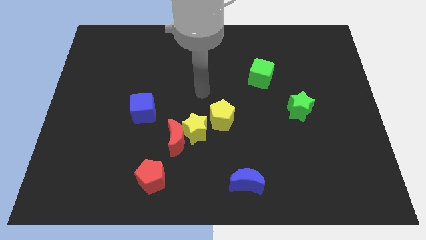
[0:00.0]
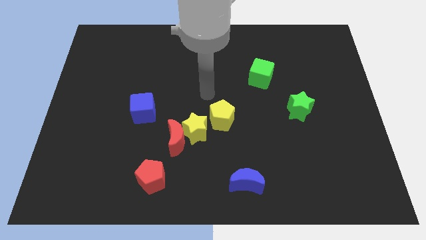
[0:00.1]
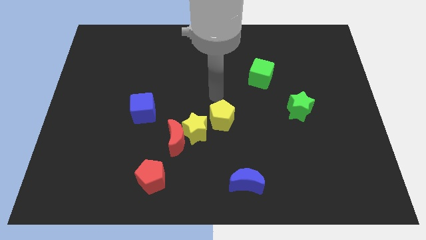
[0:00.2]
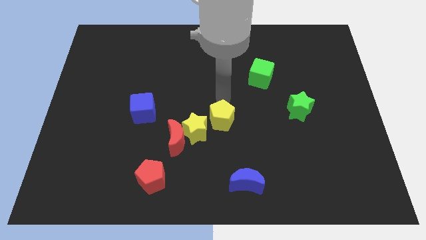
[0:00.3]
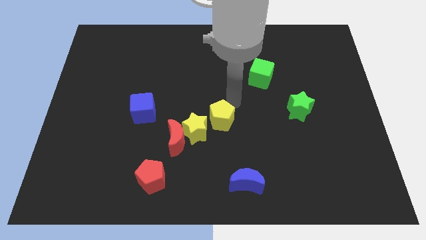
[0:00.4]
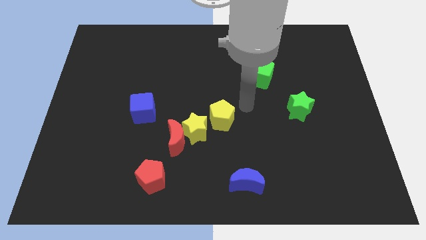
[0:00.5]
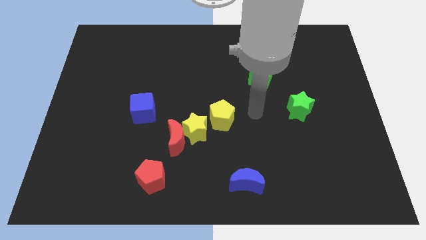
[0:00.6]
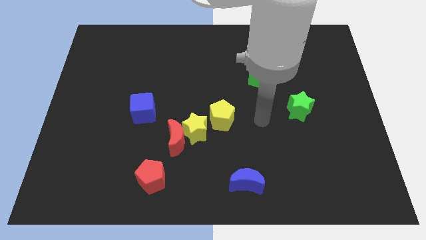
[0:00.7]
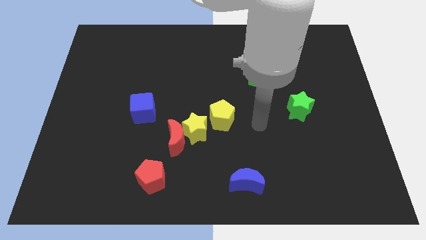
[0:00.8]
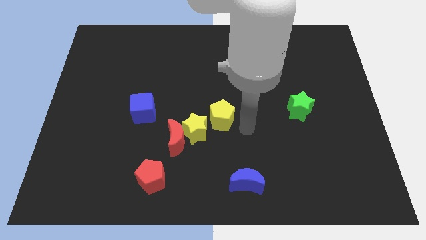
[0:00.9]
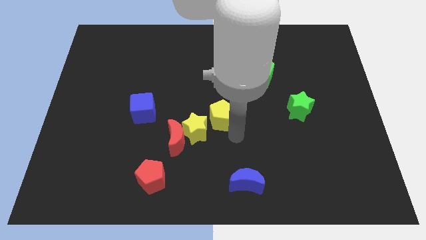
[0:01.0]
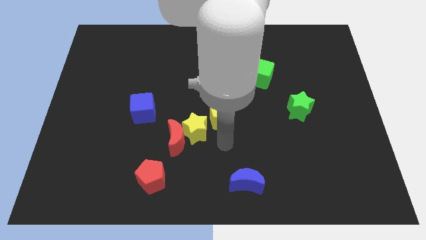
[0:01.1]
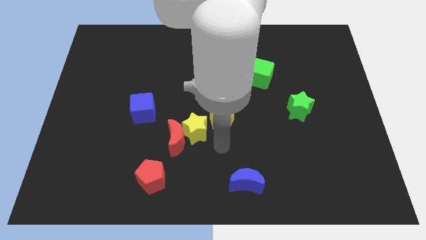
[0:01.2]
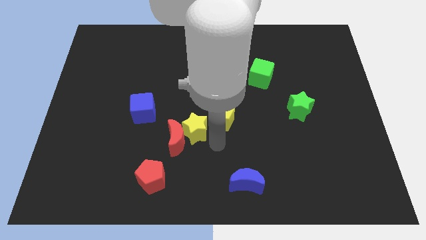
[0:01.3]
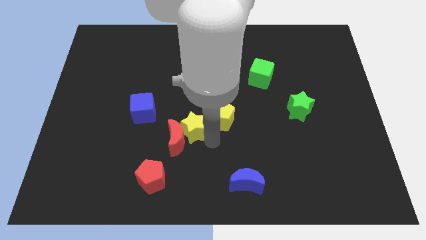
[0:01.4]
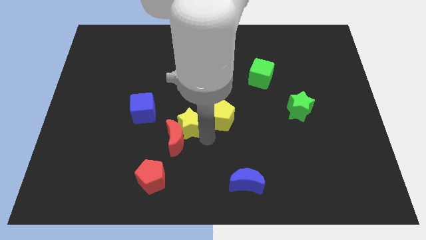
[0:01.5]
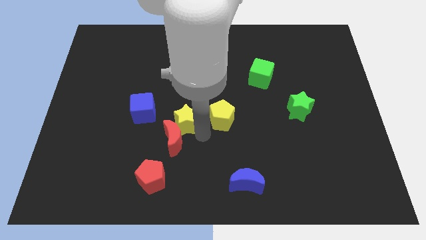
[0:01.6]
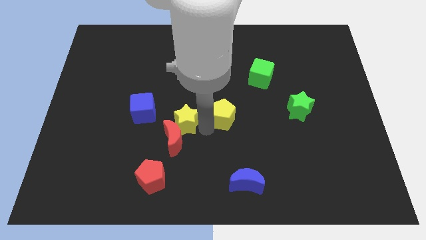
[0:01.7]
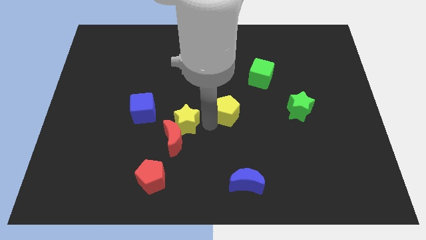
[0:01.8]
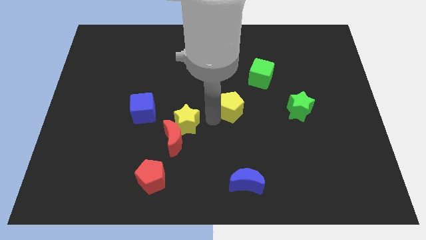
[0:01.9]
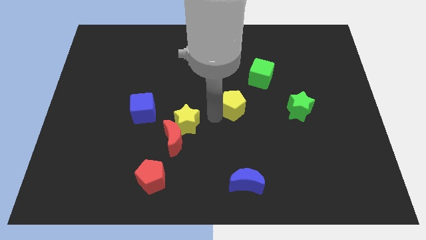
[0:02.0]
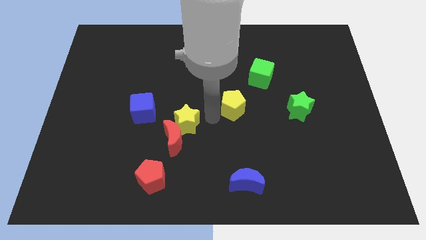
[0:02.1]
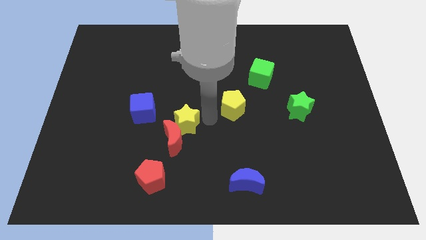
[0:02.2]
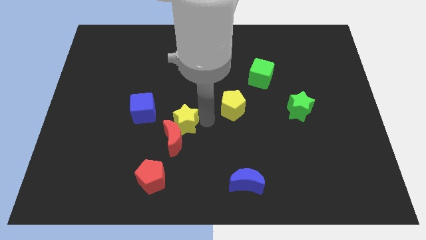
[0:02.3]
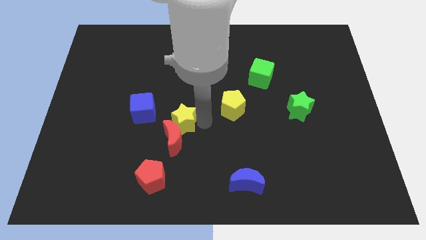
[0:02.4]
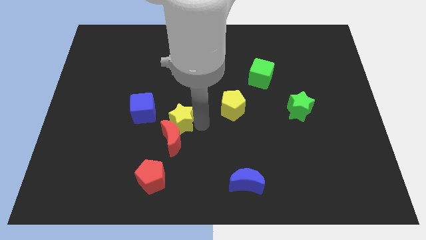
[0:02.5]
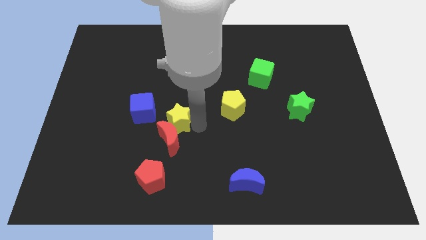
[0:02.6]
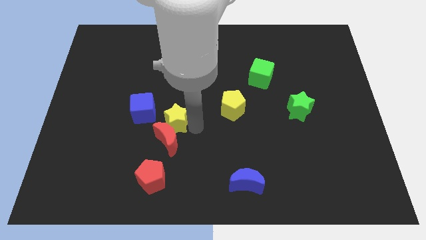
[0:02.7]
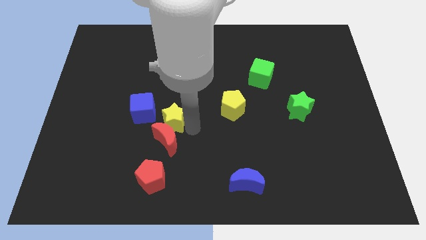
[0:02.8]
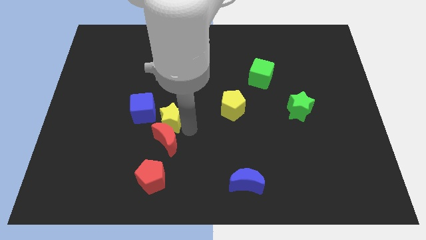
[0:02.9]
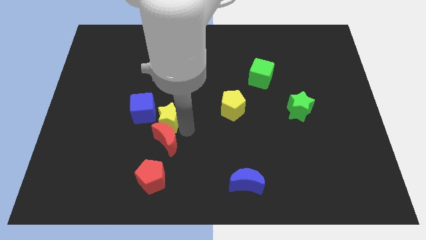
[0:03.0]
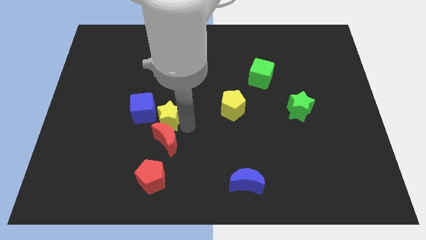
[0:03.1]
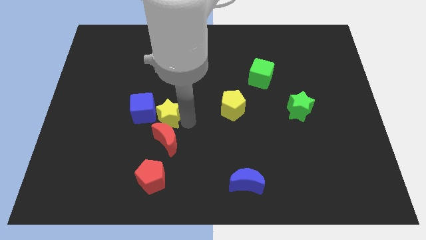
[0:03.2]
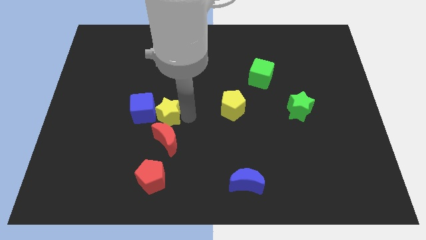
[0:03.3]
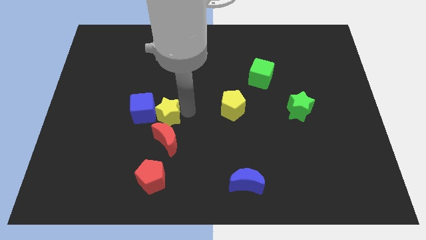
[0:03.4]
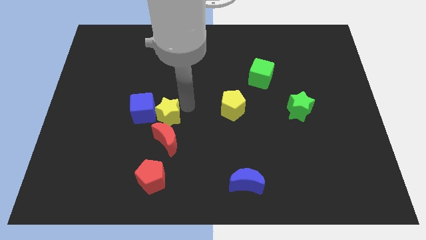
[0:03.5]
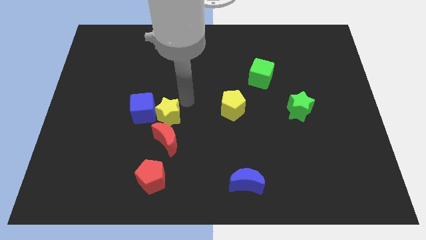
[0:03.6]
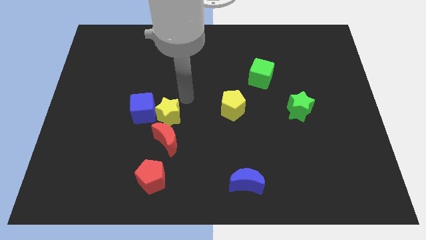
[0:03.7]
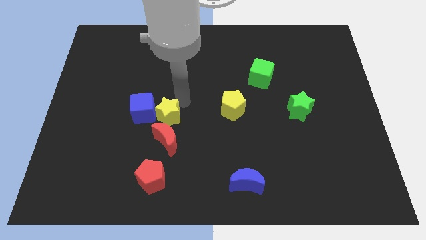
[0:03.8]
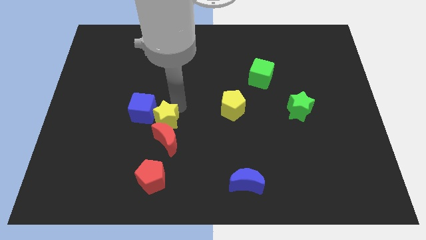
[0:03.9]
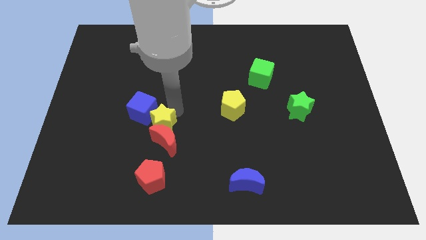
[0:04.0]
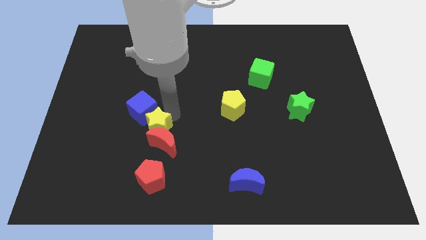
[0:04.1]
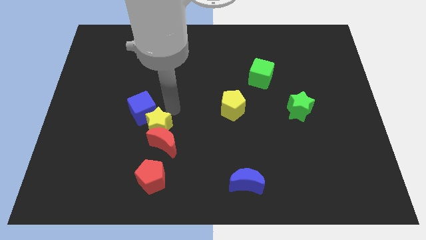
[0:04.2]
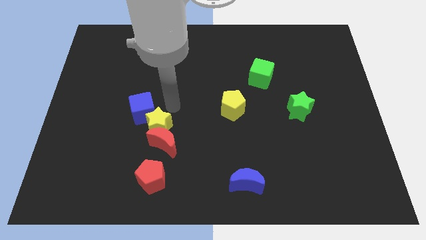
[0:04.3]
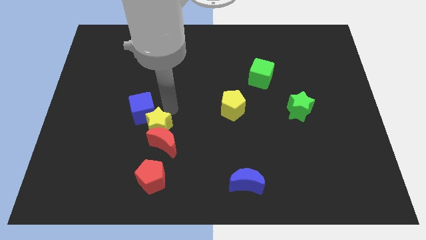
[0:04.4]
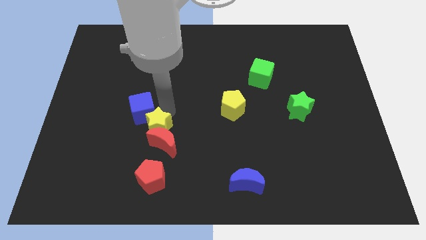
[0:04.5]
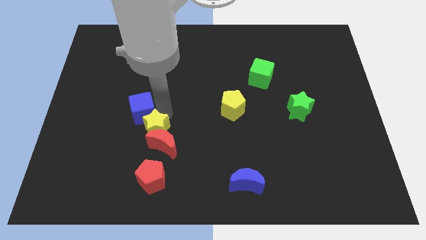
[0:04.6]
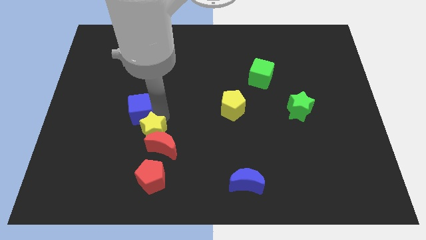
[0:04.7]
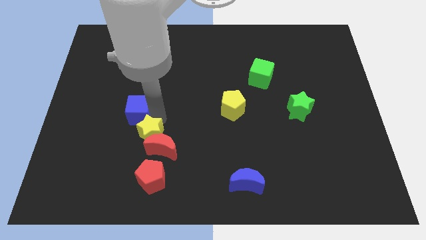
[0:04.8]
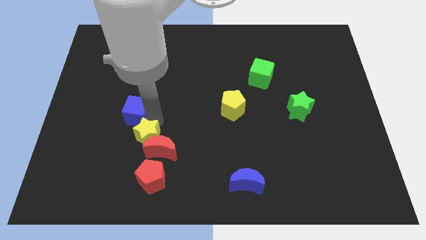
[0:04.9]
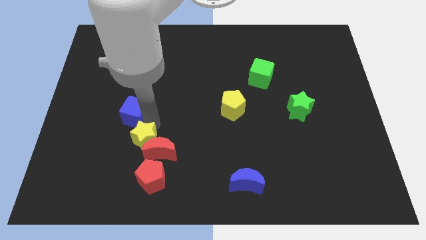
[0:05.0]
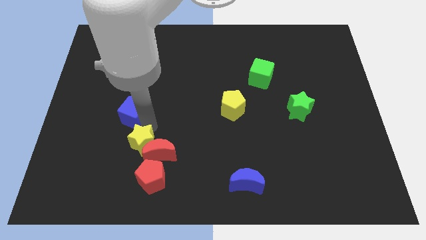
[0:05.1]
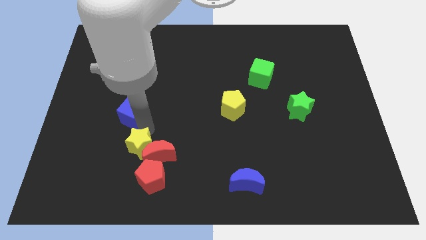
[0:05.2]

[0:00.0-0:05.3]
move the yellow star diagonally down and to the left of the red moon

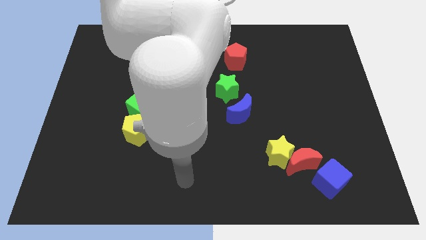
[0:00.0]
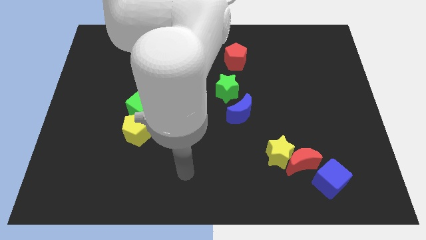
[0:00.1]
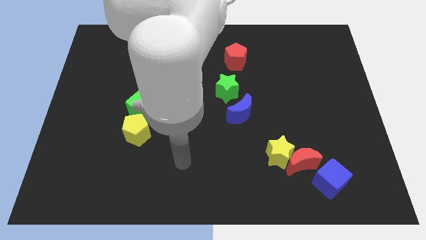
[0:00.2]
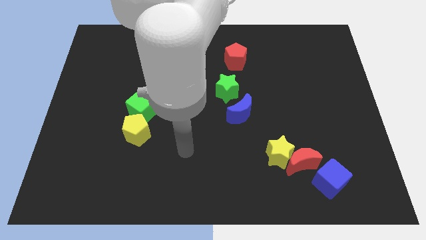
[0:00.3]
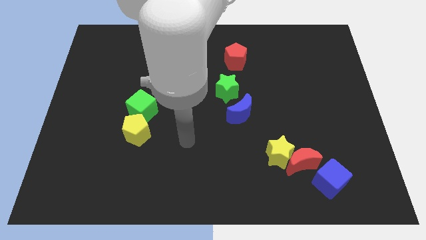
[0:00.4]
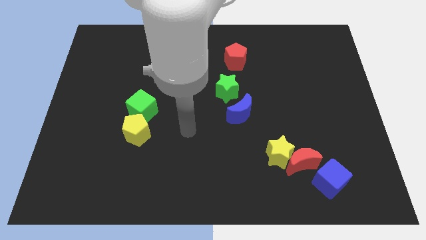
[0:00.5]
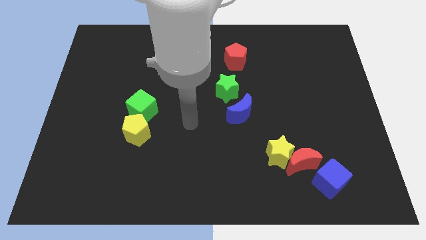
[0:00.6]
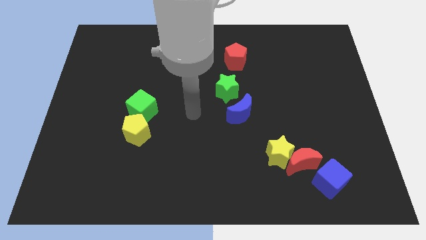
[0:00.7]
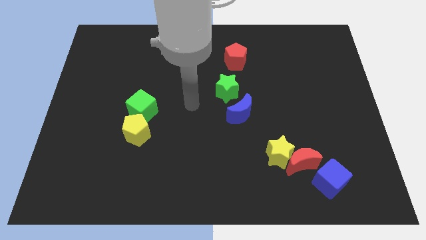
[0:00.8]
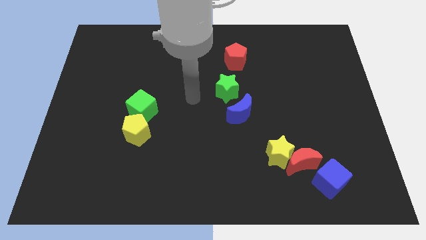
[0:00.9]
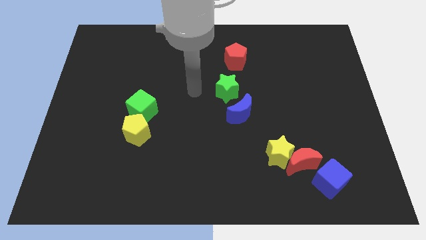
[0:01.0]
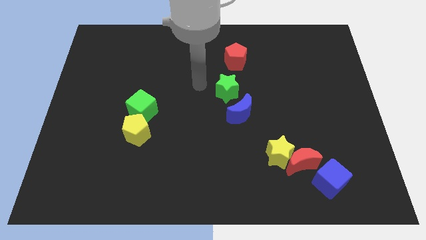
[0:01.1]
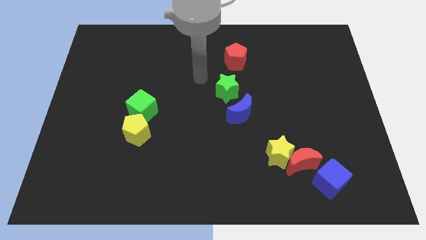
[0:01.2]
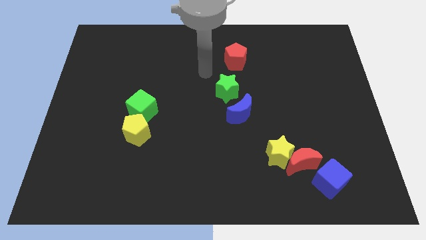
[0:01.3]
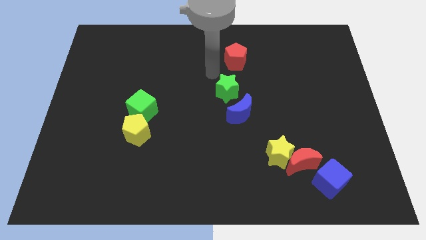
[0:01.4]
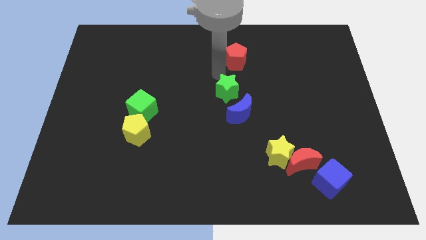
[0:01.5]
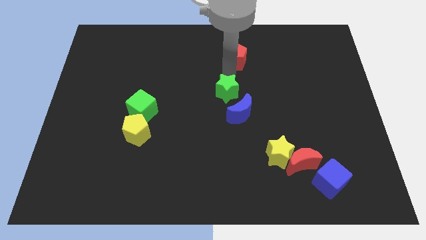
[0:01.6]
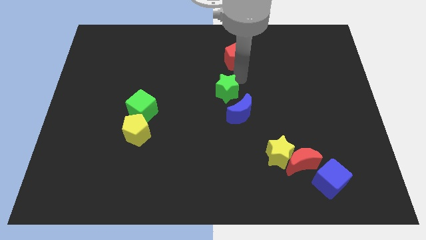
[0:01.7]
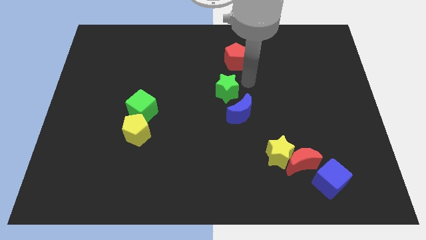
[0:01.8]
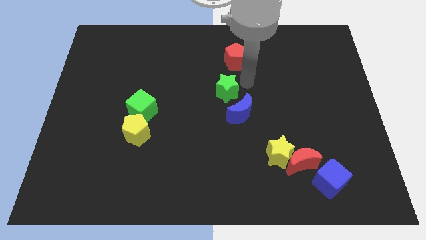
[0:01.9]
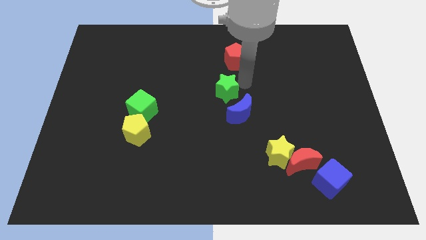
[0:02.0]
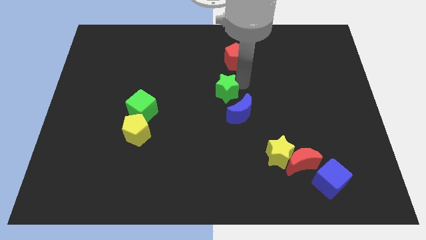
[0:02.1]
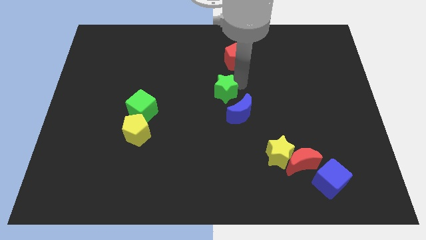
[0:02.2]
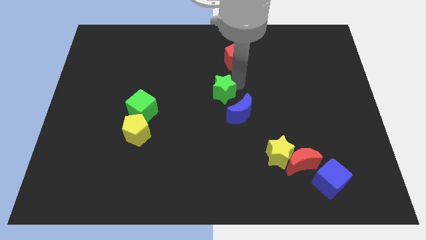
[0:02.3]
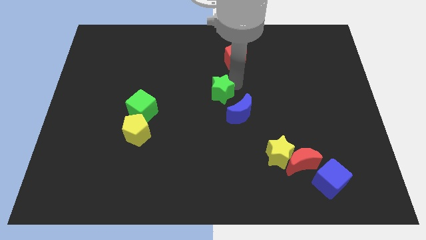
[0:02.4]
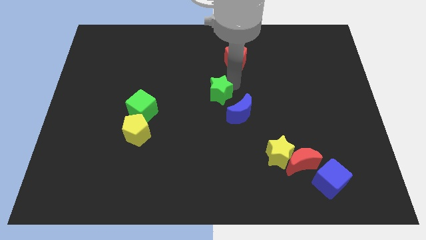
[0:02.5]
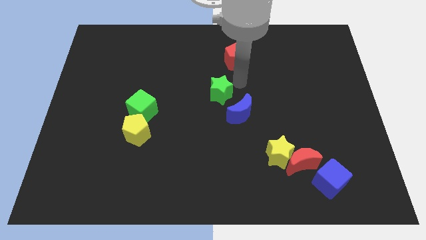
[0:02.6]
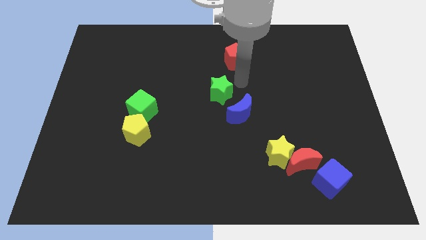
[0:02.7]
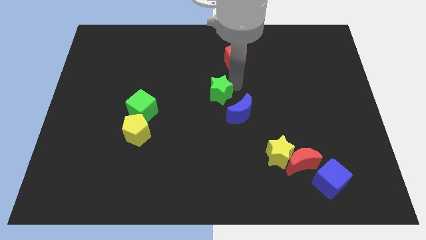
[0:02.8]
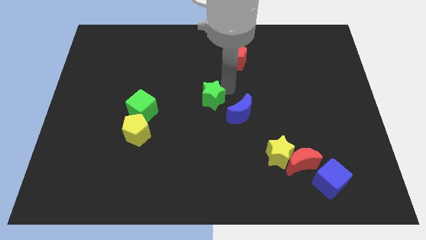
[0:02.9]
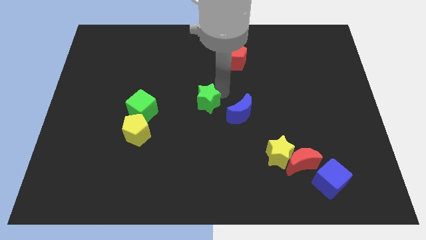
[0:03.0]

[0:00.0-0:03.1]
put the green star right of the green cube
